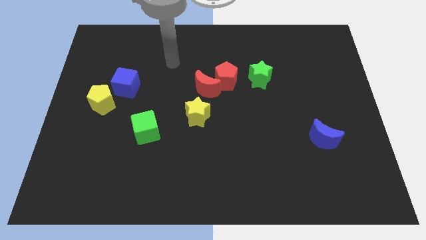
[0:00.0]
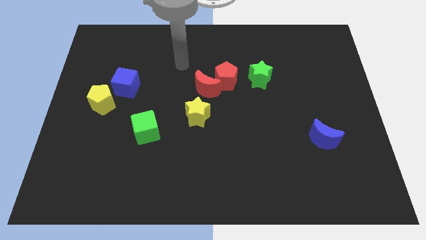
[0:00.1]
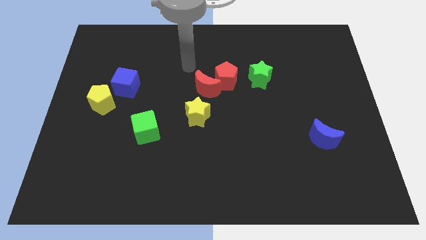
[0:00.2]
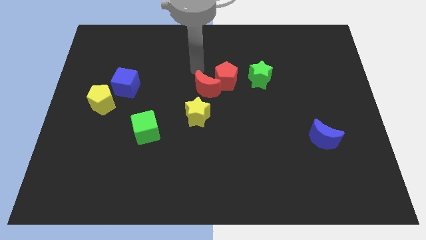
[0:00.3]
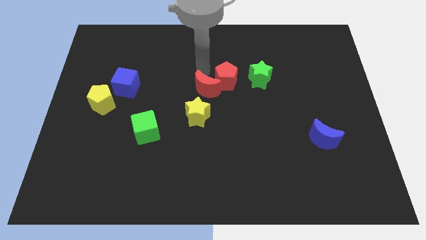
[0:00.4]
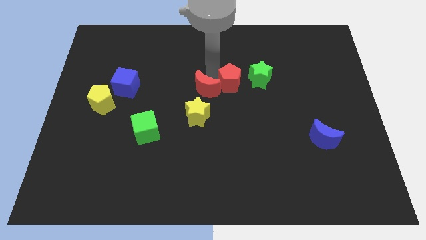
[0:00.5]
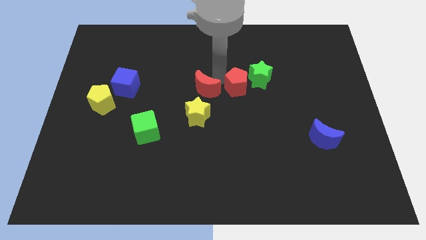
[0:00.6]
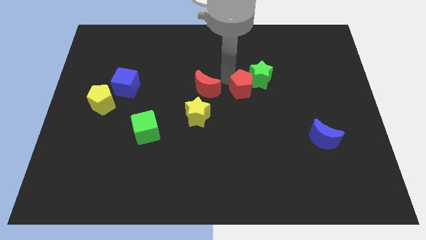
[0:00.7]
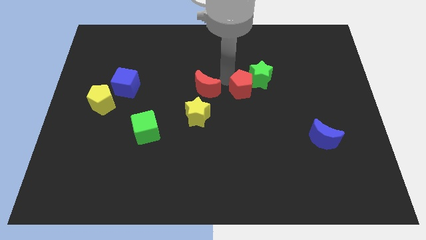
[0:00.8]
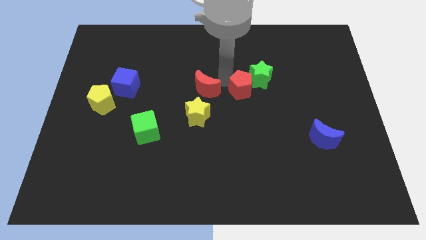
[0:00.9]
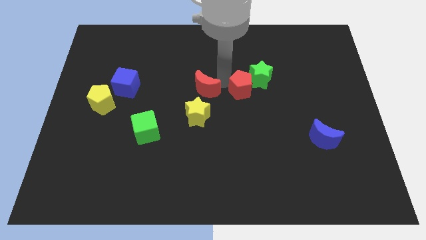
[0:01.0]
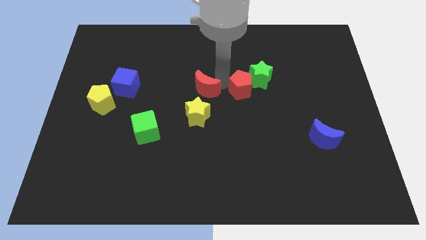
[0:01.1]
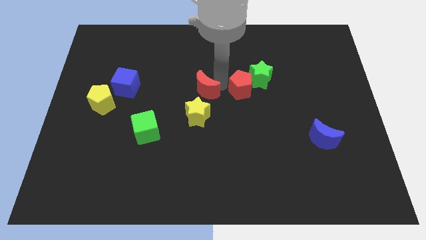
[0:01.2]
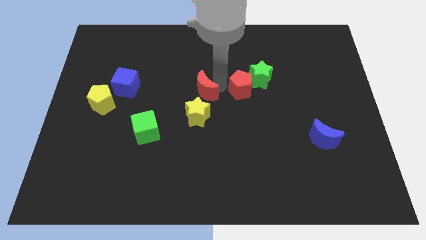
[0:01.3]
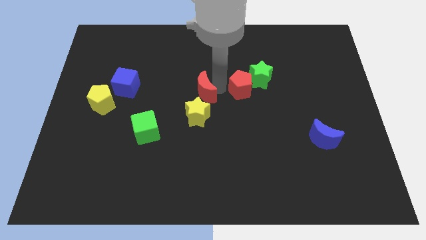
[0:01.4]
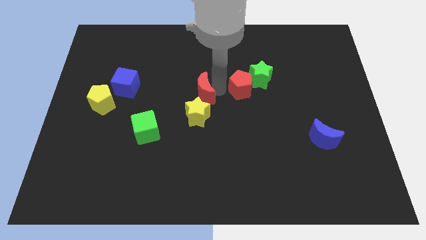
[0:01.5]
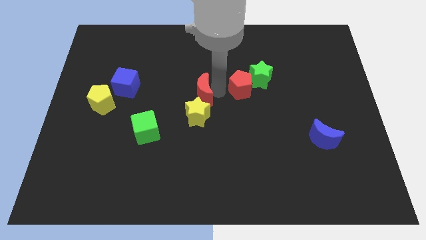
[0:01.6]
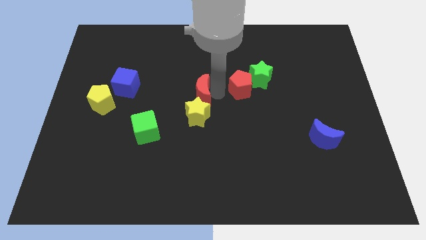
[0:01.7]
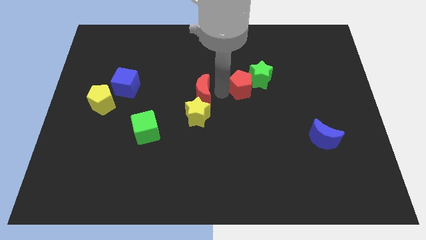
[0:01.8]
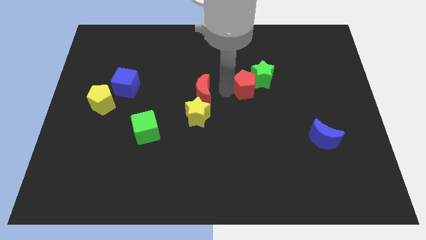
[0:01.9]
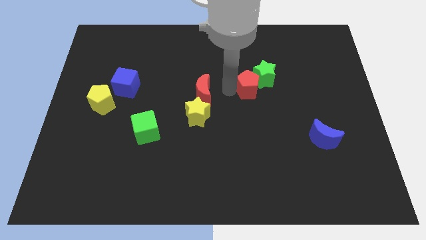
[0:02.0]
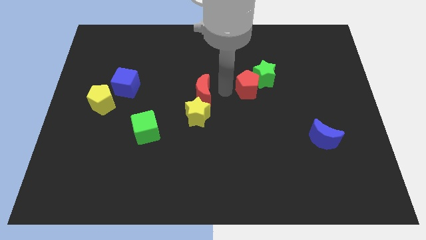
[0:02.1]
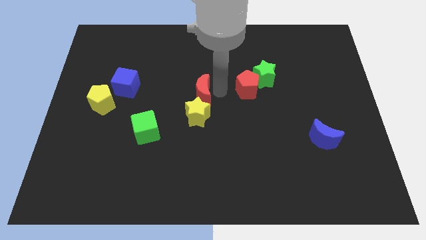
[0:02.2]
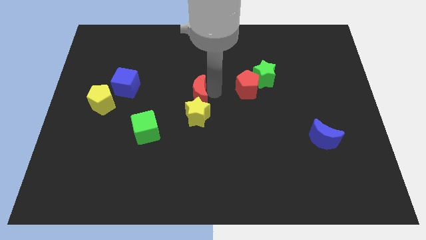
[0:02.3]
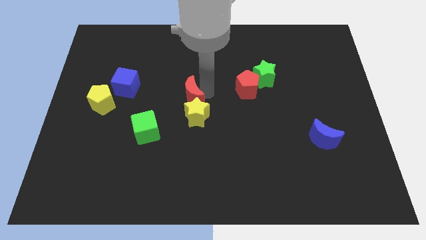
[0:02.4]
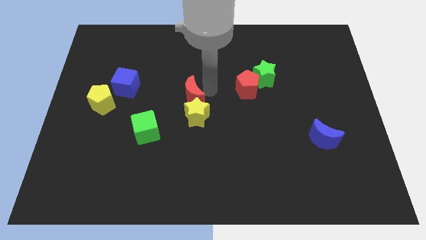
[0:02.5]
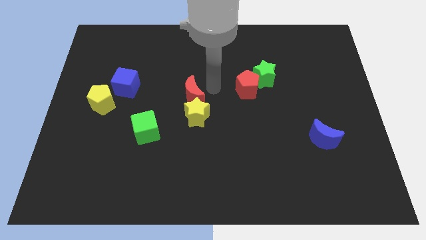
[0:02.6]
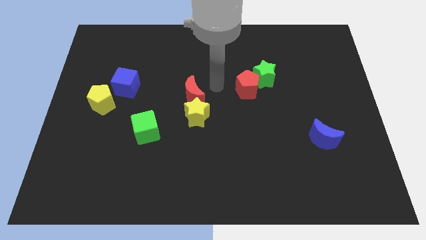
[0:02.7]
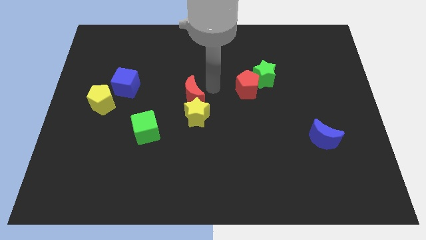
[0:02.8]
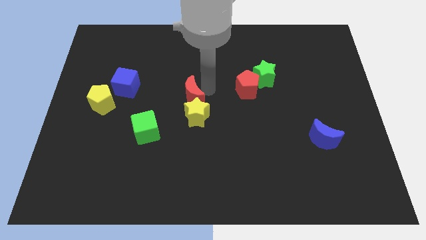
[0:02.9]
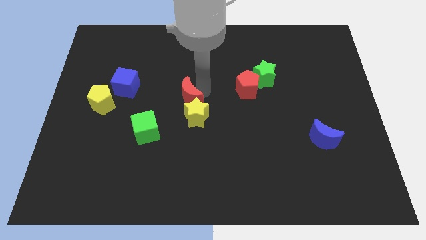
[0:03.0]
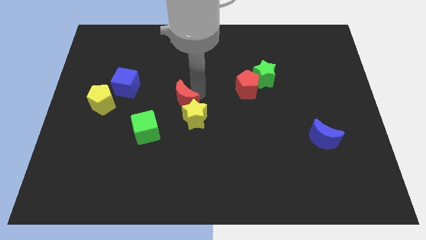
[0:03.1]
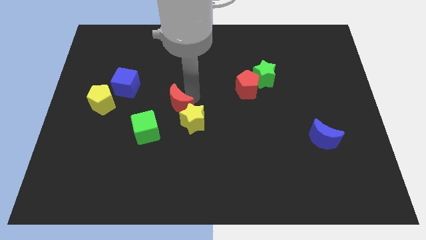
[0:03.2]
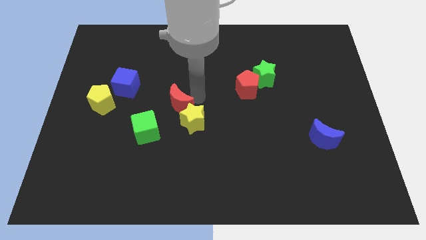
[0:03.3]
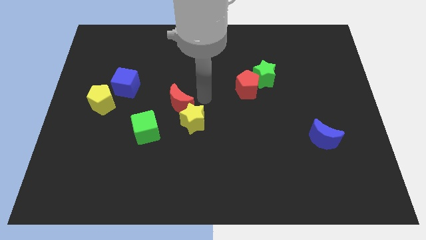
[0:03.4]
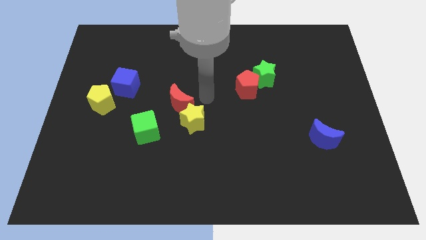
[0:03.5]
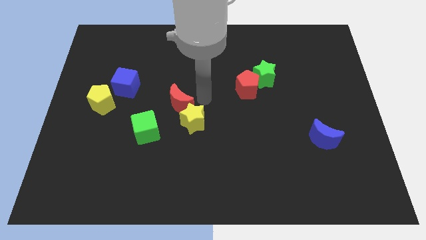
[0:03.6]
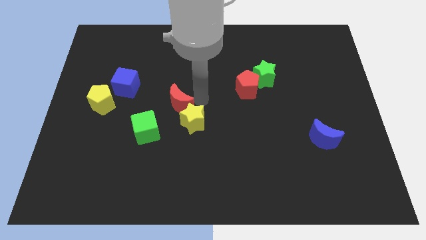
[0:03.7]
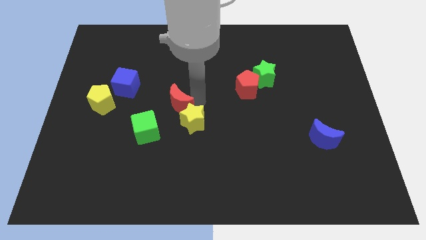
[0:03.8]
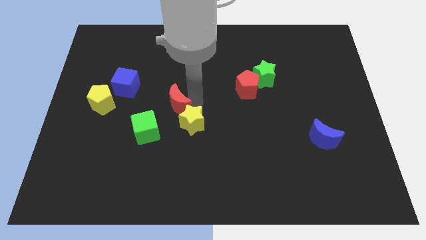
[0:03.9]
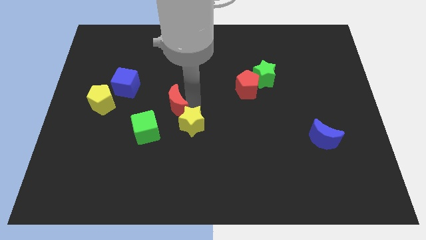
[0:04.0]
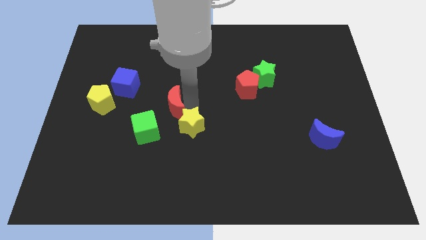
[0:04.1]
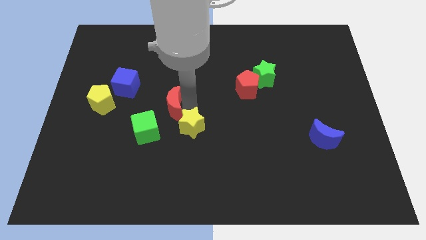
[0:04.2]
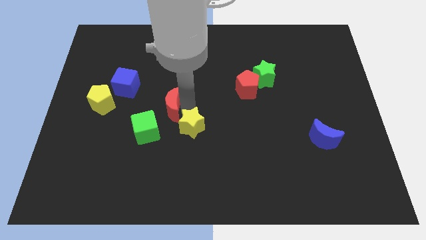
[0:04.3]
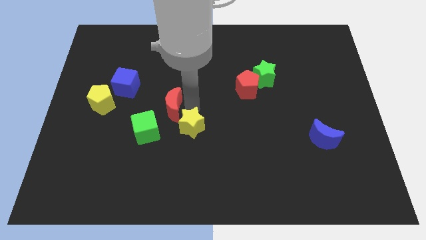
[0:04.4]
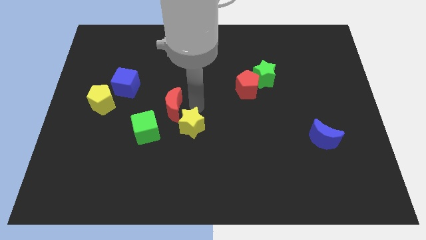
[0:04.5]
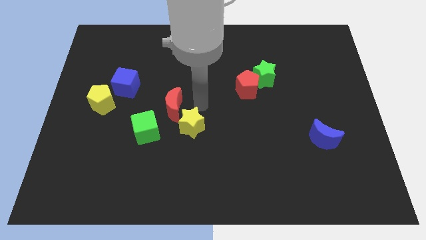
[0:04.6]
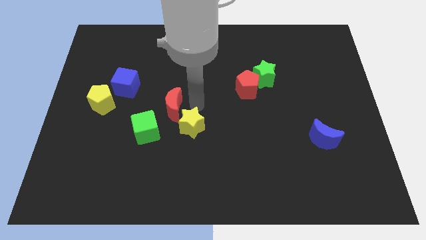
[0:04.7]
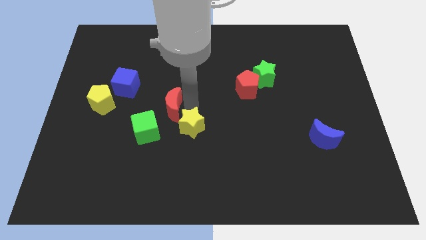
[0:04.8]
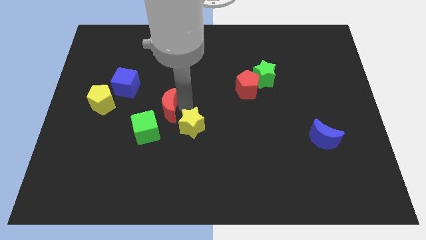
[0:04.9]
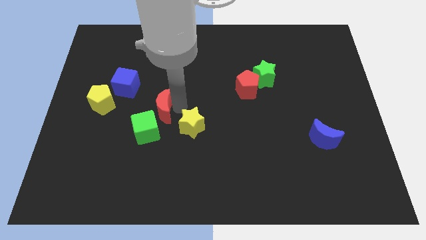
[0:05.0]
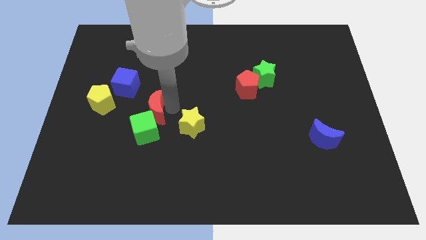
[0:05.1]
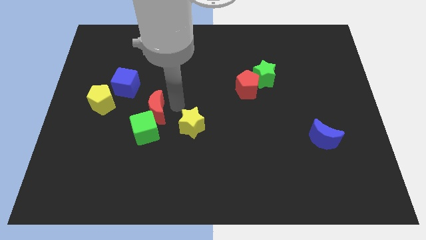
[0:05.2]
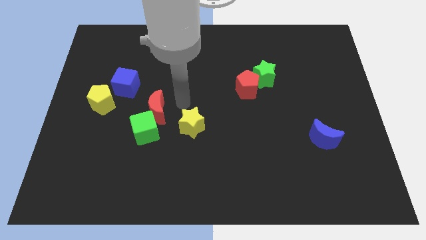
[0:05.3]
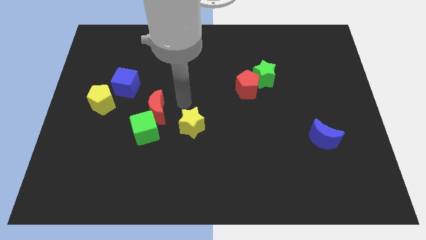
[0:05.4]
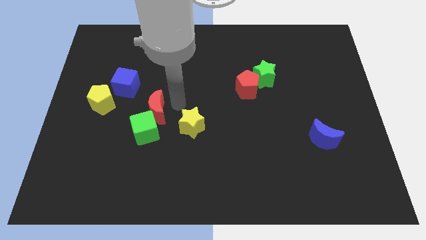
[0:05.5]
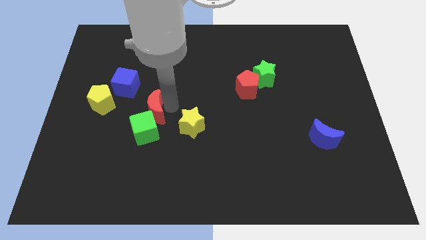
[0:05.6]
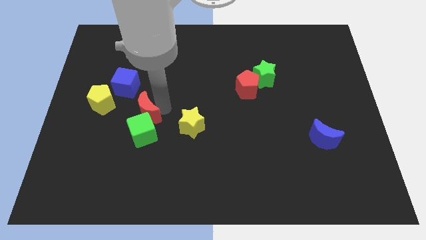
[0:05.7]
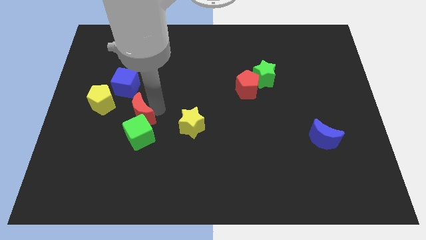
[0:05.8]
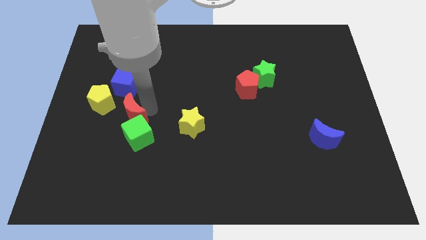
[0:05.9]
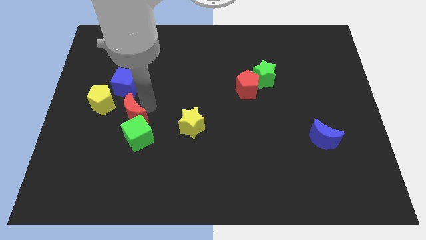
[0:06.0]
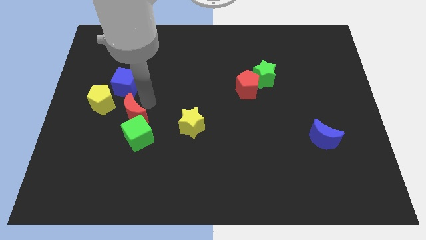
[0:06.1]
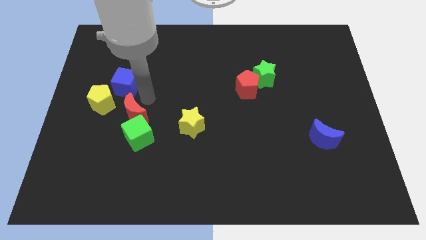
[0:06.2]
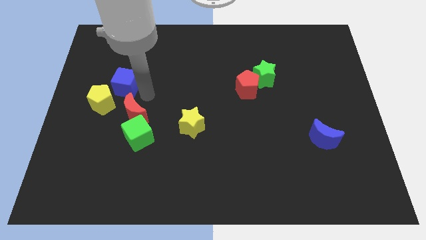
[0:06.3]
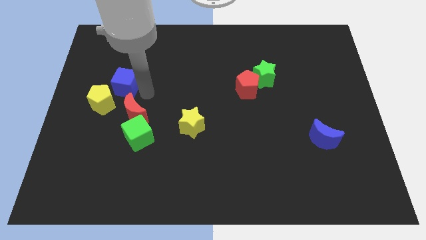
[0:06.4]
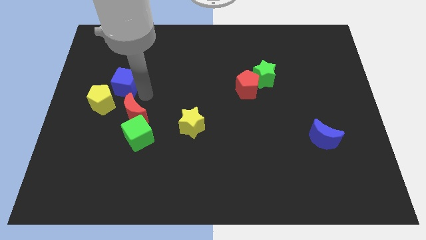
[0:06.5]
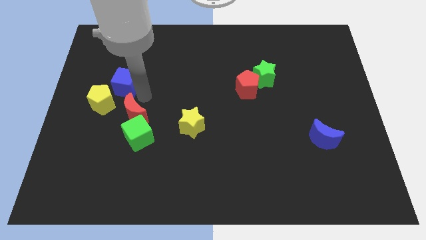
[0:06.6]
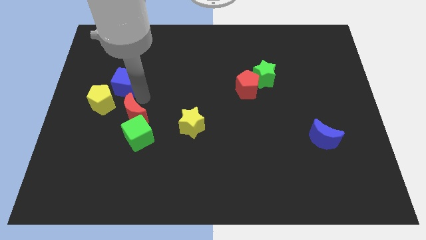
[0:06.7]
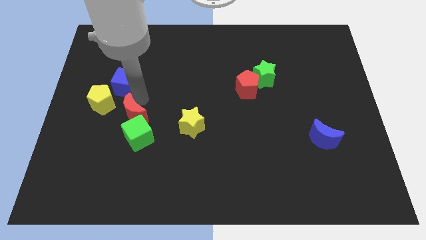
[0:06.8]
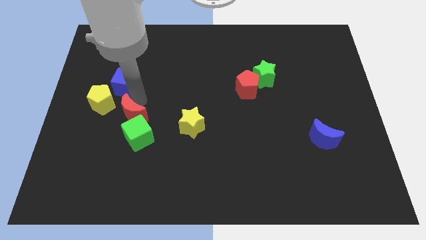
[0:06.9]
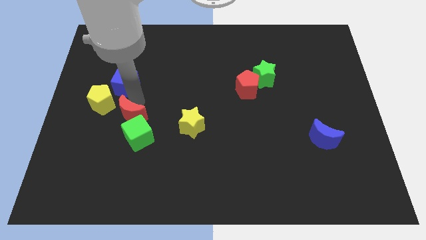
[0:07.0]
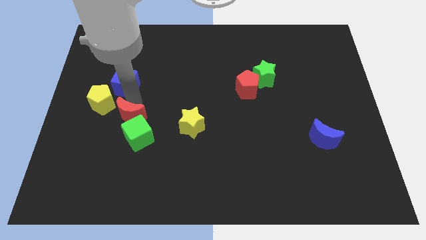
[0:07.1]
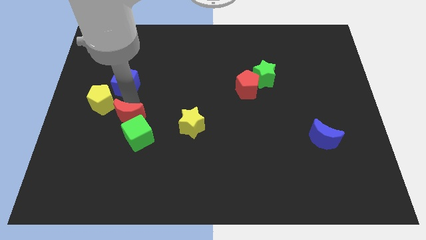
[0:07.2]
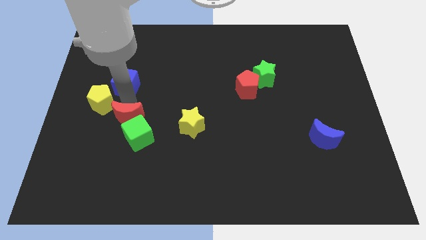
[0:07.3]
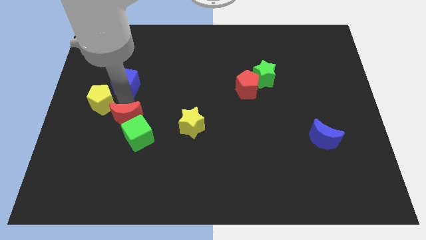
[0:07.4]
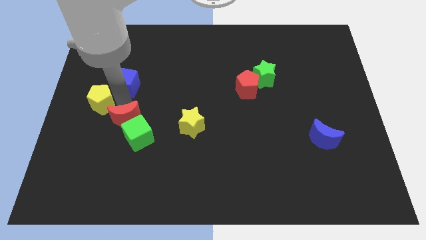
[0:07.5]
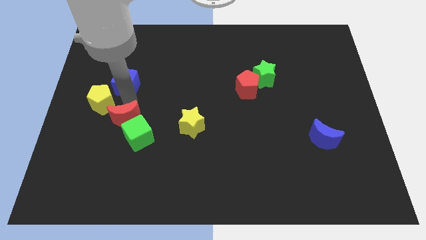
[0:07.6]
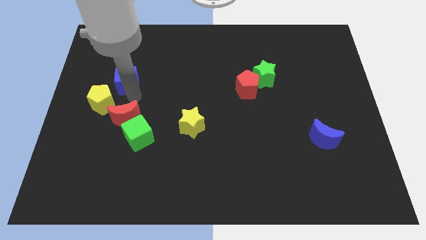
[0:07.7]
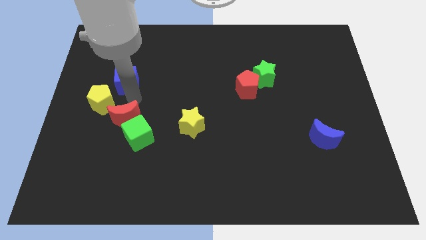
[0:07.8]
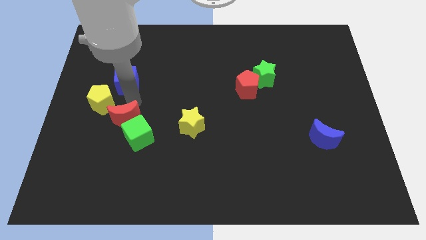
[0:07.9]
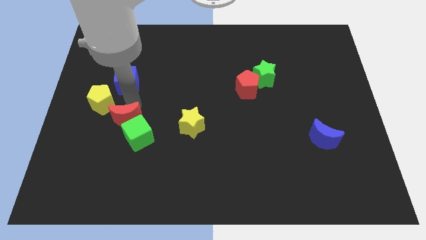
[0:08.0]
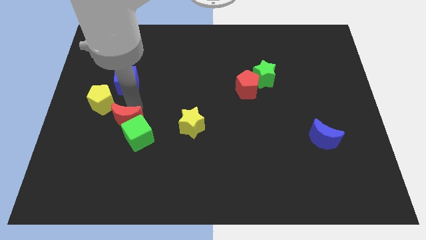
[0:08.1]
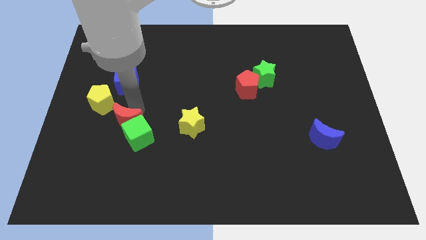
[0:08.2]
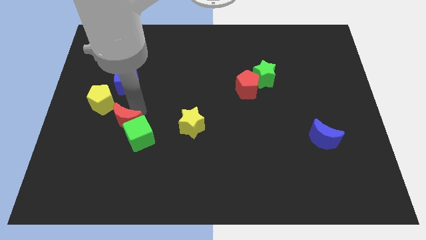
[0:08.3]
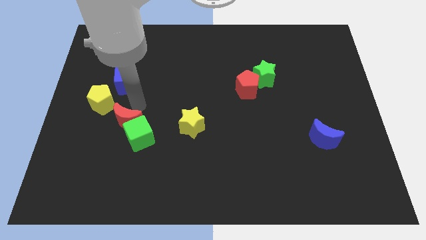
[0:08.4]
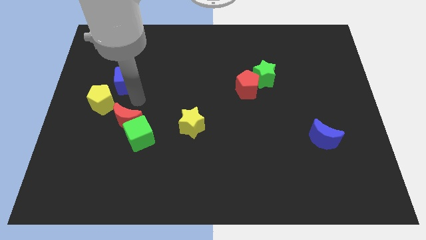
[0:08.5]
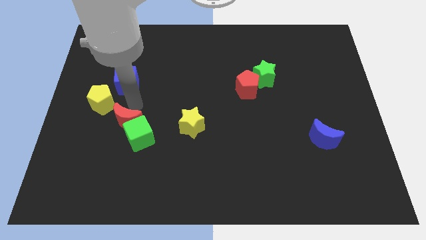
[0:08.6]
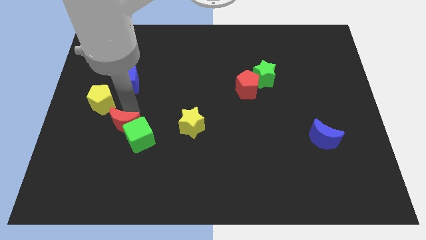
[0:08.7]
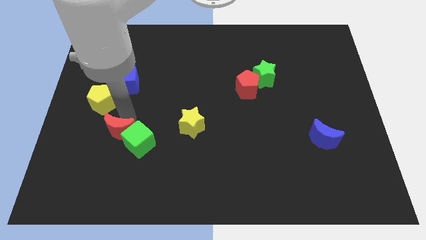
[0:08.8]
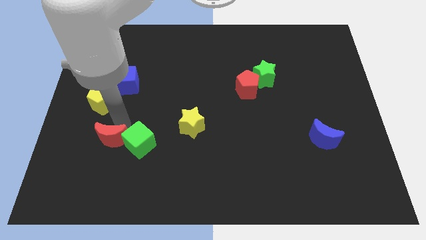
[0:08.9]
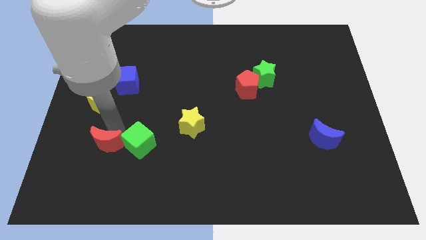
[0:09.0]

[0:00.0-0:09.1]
put the red moon to the bottom left of the green cube
